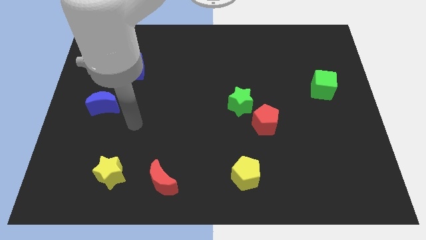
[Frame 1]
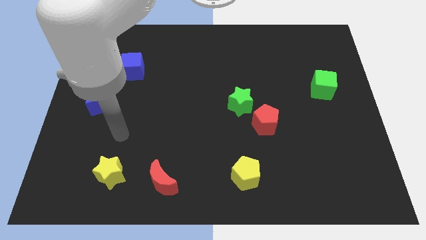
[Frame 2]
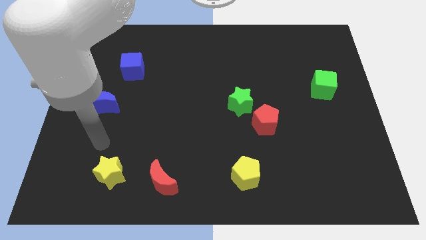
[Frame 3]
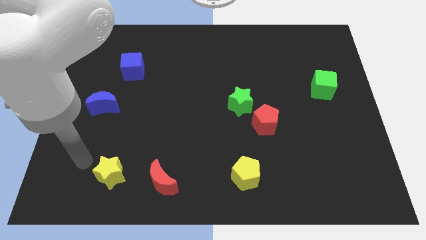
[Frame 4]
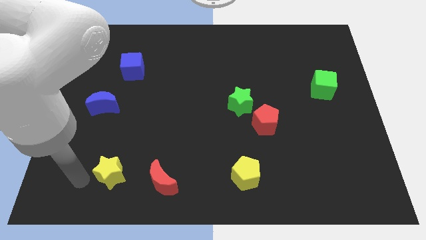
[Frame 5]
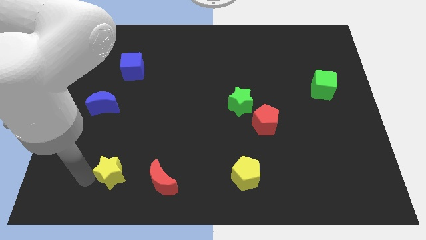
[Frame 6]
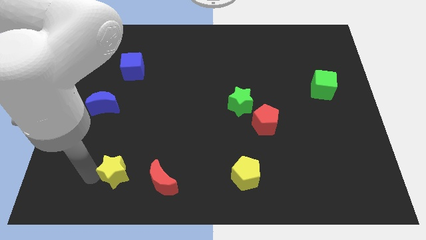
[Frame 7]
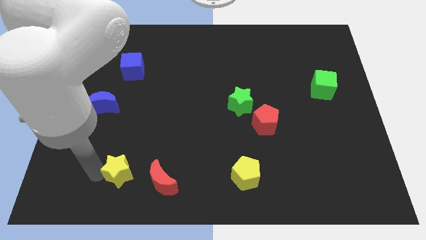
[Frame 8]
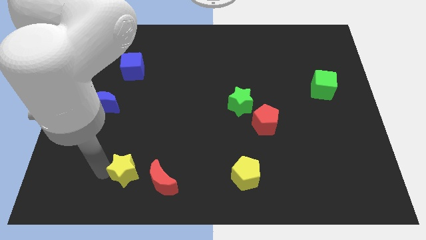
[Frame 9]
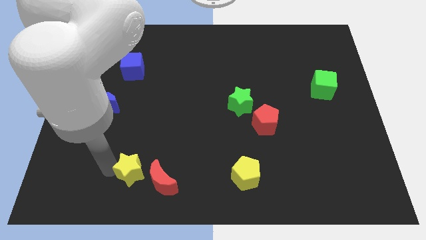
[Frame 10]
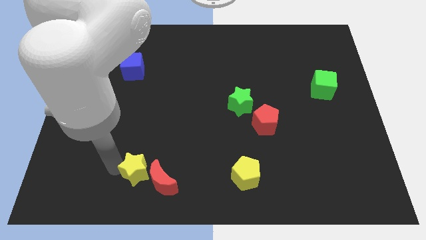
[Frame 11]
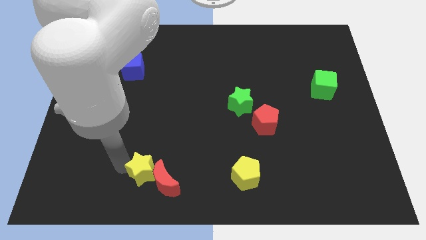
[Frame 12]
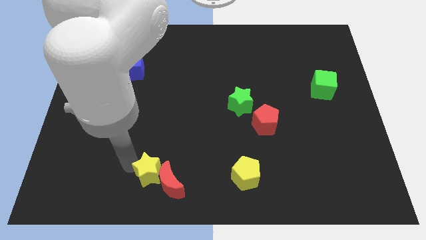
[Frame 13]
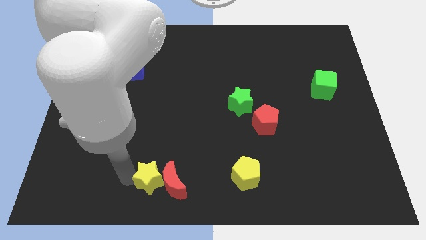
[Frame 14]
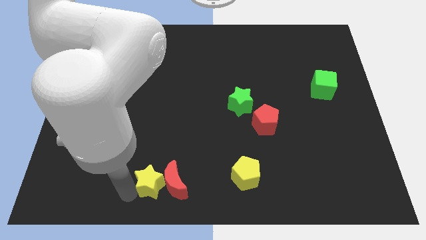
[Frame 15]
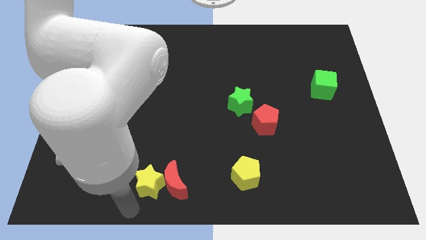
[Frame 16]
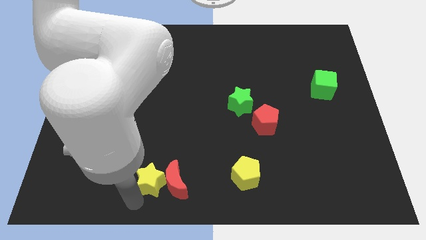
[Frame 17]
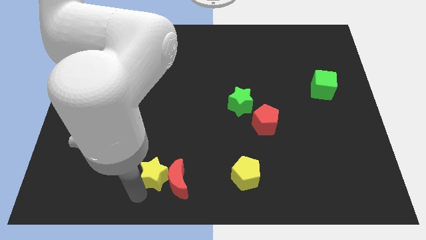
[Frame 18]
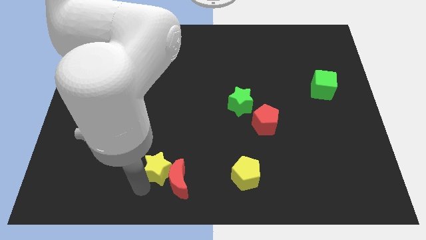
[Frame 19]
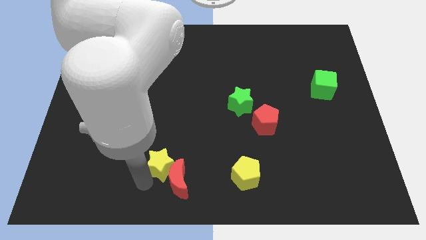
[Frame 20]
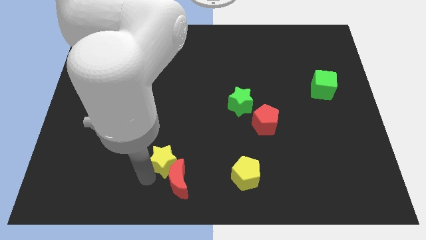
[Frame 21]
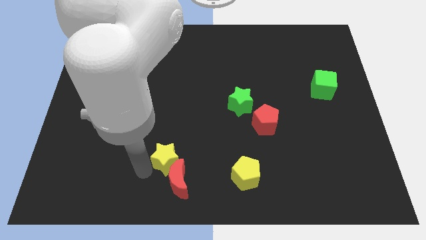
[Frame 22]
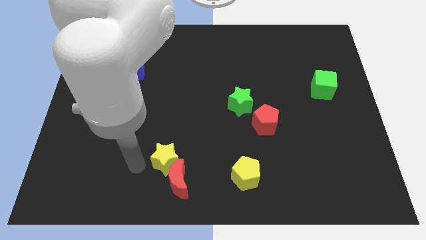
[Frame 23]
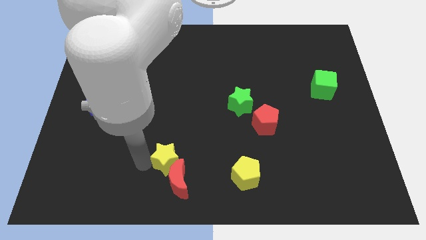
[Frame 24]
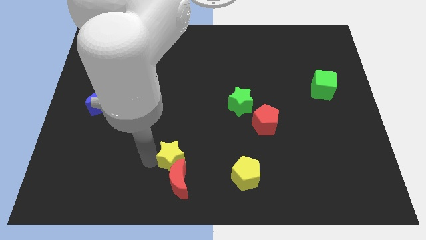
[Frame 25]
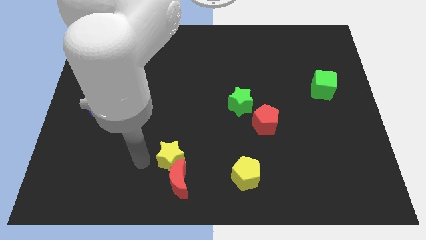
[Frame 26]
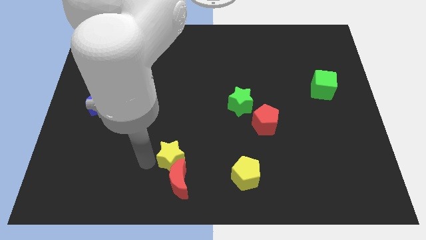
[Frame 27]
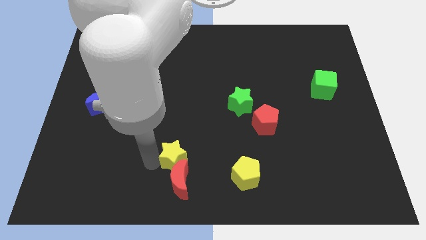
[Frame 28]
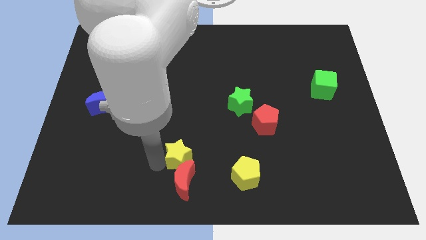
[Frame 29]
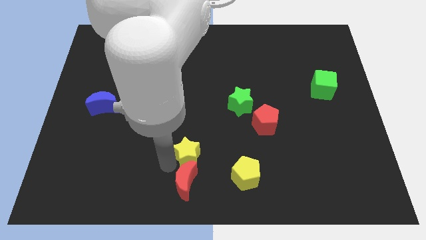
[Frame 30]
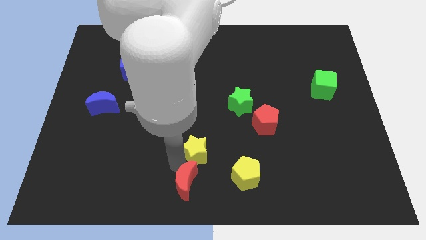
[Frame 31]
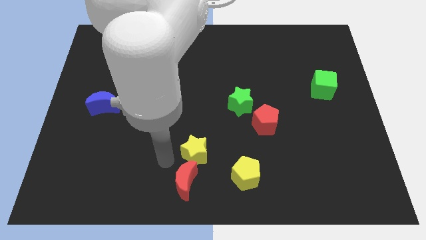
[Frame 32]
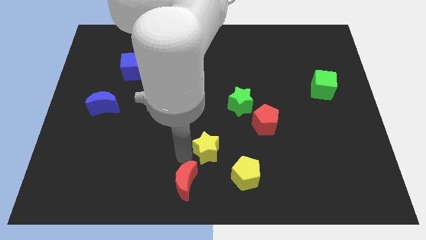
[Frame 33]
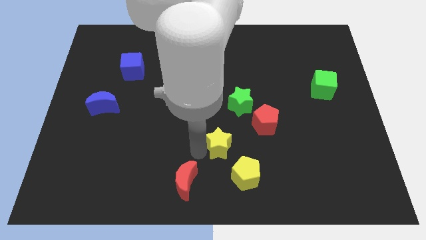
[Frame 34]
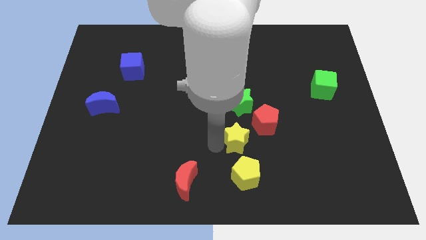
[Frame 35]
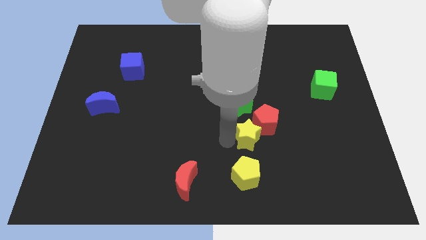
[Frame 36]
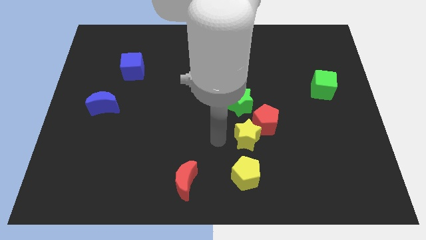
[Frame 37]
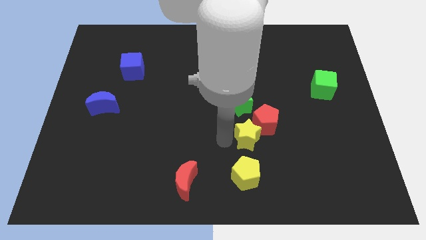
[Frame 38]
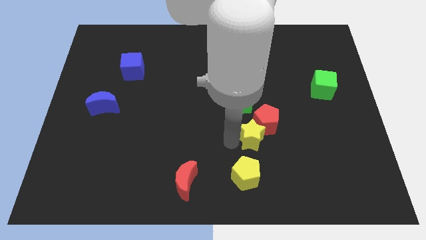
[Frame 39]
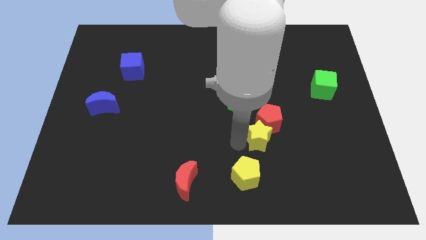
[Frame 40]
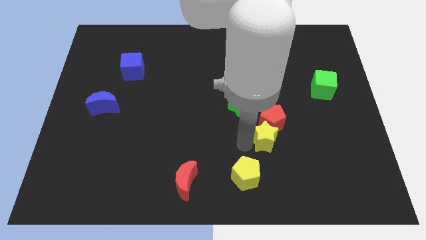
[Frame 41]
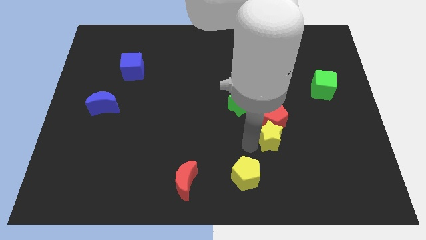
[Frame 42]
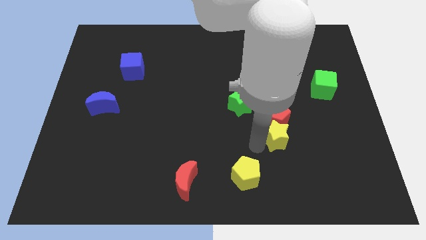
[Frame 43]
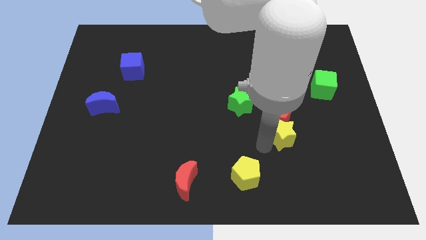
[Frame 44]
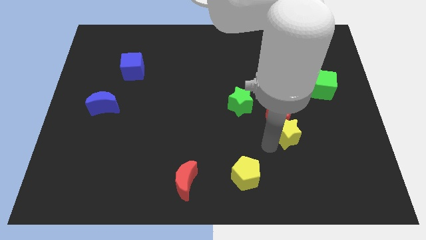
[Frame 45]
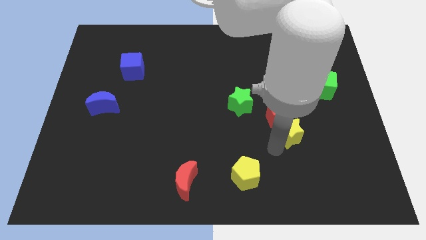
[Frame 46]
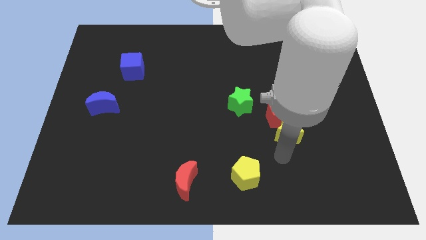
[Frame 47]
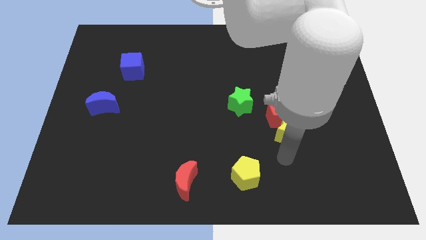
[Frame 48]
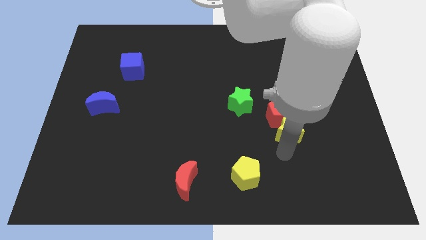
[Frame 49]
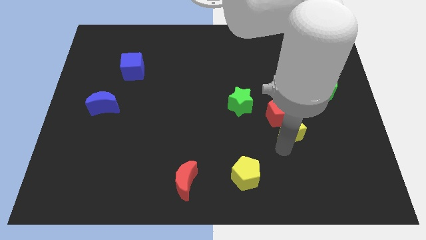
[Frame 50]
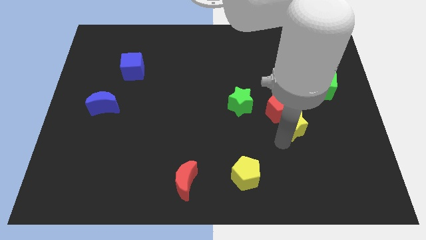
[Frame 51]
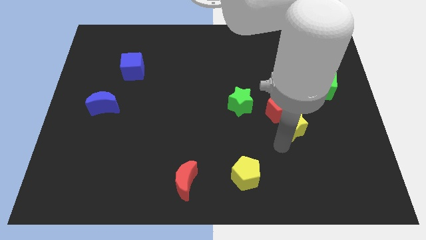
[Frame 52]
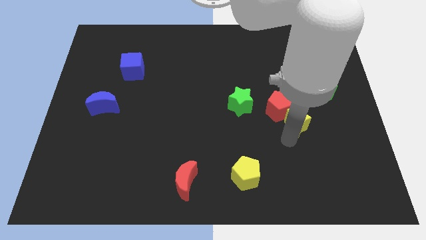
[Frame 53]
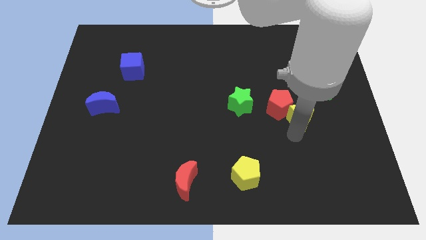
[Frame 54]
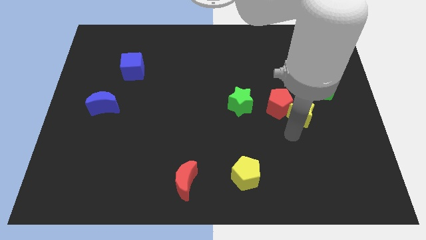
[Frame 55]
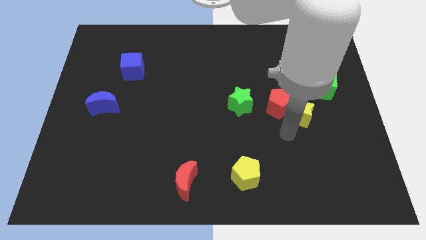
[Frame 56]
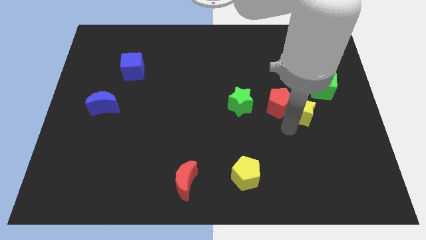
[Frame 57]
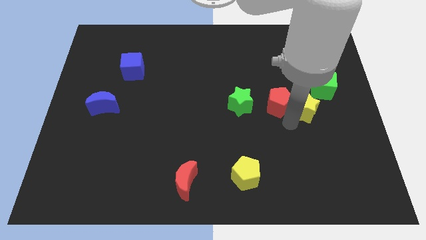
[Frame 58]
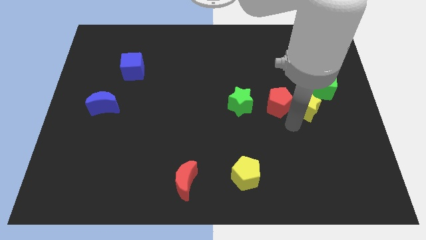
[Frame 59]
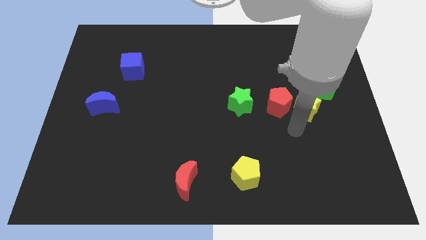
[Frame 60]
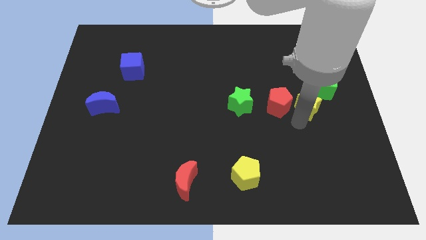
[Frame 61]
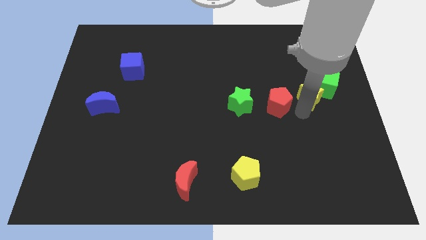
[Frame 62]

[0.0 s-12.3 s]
put the yellow star next to the green cube

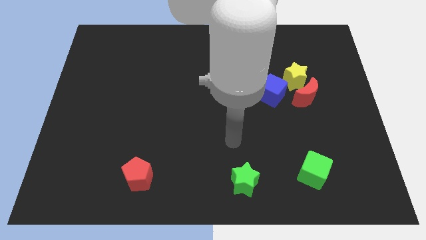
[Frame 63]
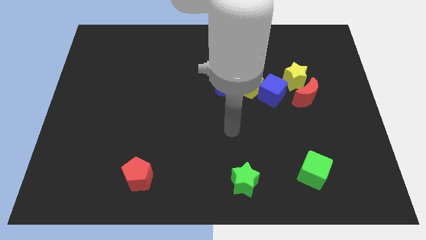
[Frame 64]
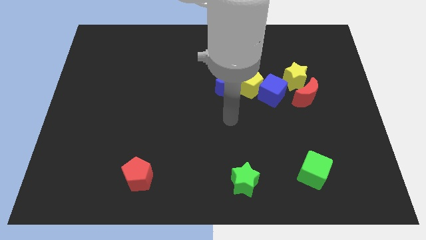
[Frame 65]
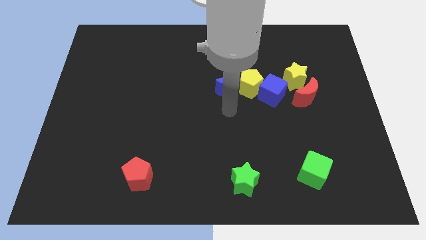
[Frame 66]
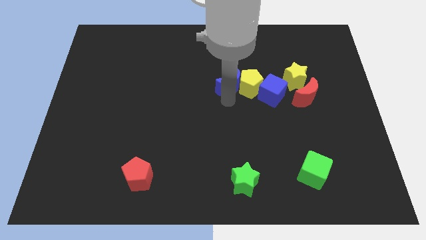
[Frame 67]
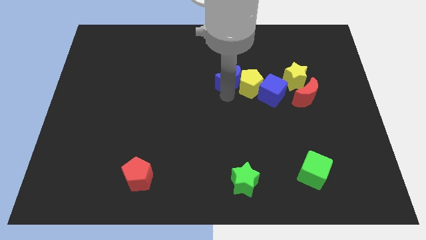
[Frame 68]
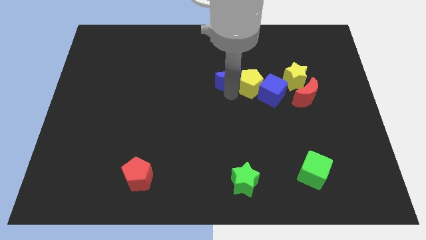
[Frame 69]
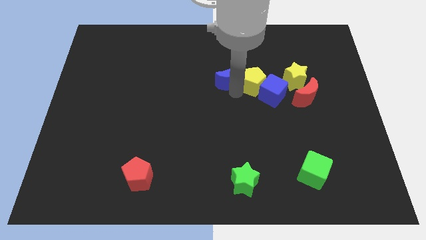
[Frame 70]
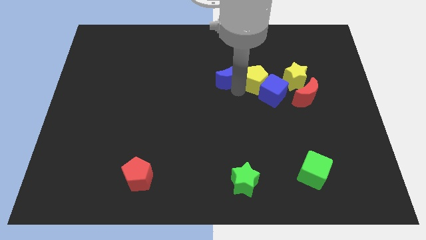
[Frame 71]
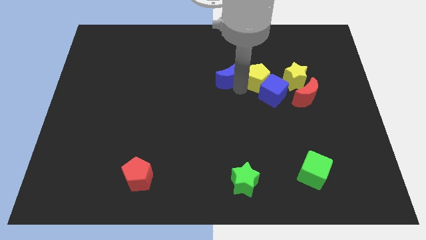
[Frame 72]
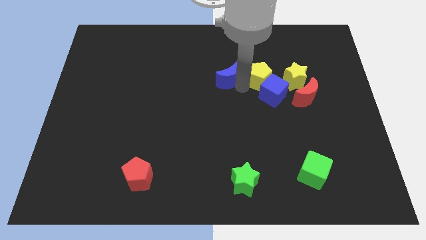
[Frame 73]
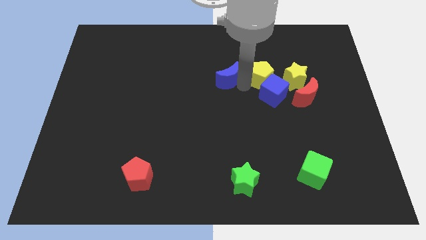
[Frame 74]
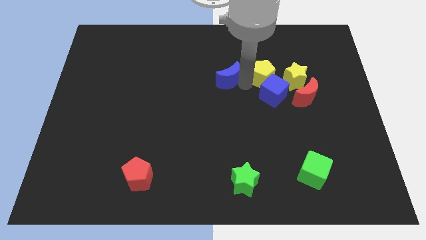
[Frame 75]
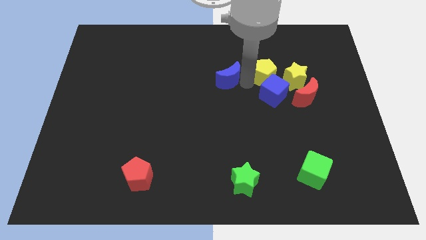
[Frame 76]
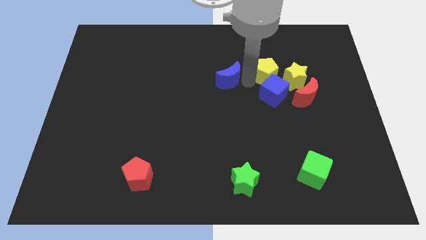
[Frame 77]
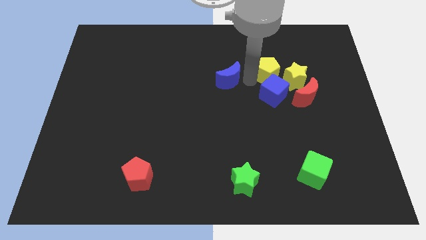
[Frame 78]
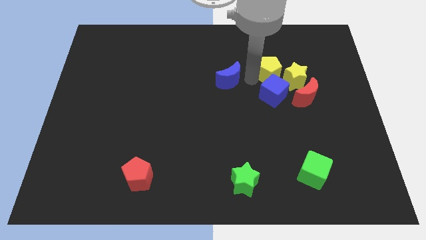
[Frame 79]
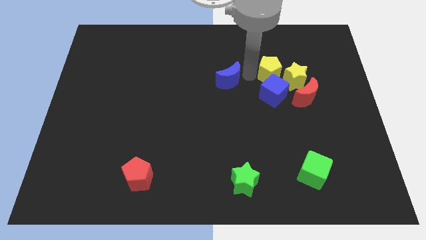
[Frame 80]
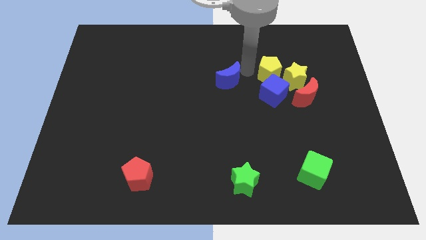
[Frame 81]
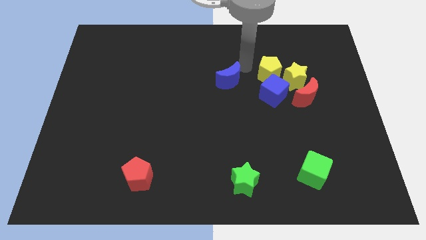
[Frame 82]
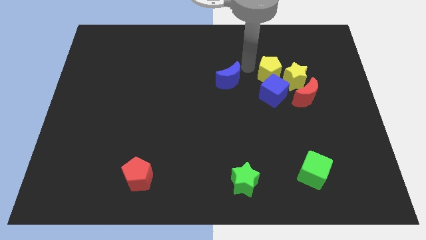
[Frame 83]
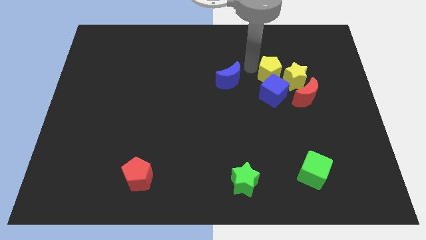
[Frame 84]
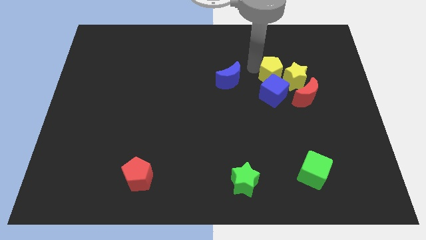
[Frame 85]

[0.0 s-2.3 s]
move the yellow pentagon next to the yellow star
